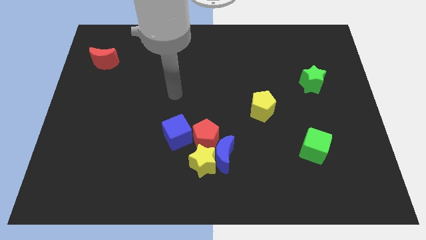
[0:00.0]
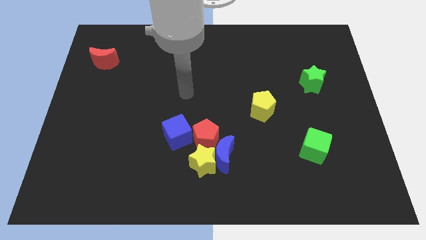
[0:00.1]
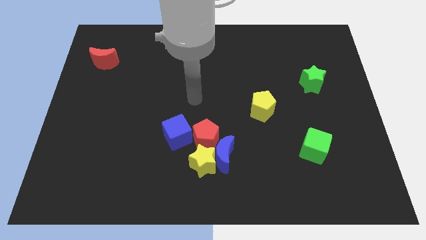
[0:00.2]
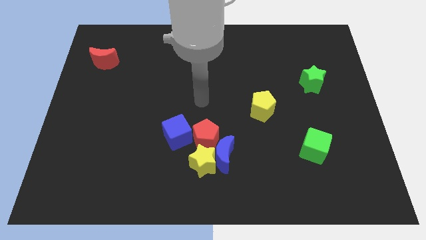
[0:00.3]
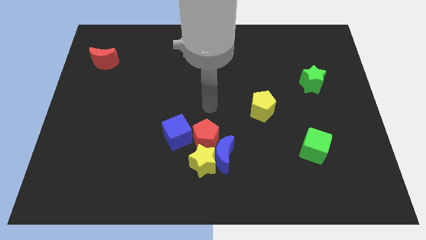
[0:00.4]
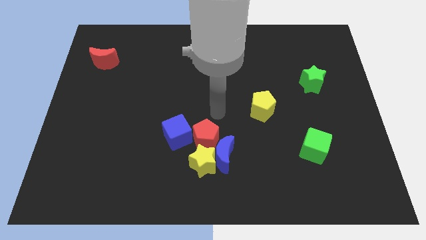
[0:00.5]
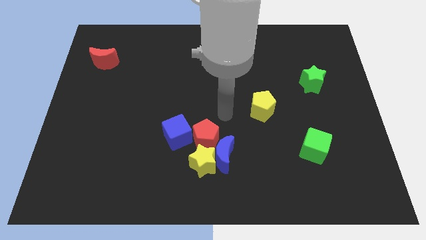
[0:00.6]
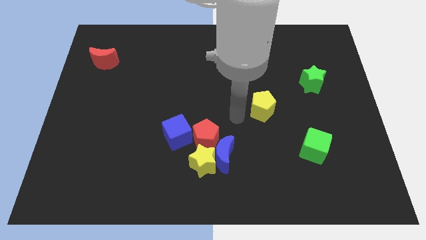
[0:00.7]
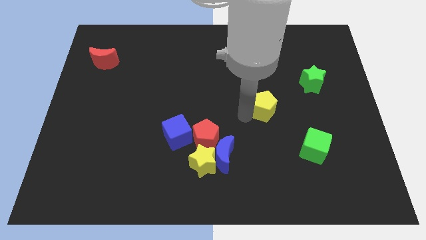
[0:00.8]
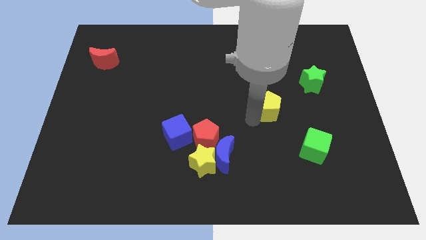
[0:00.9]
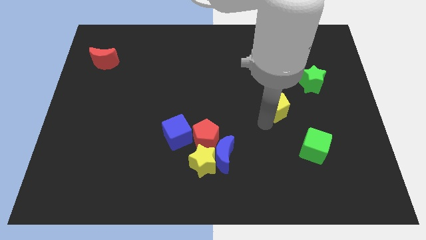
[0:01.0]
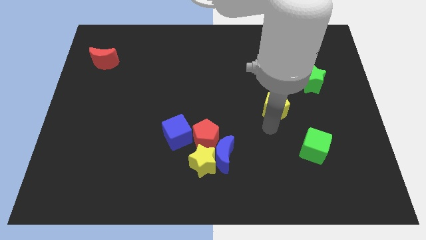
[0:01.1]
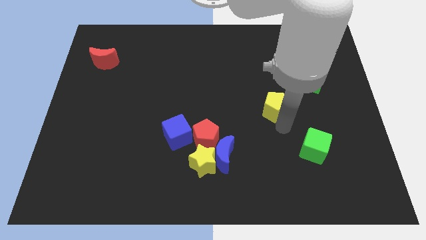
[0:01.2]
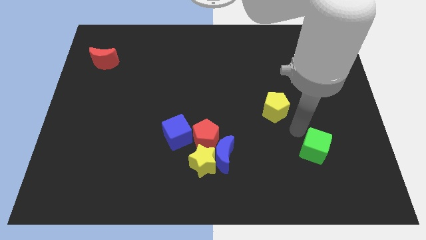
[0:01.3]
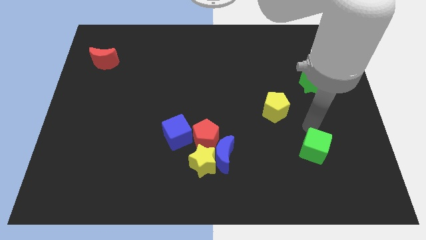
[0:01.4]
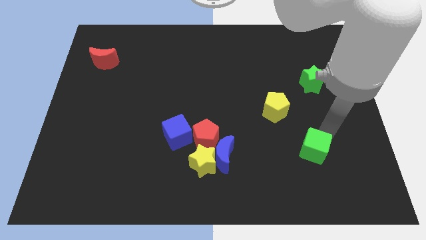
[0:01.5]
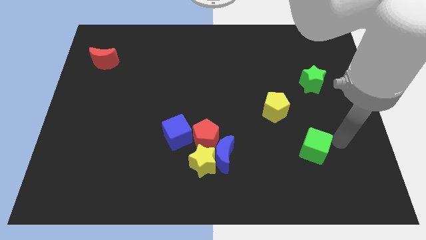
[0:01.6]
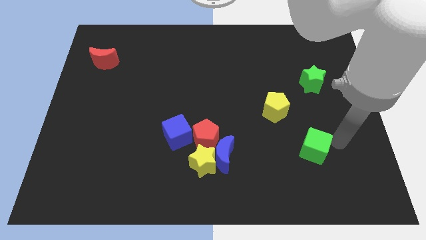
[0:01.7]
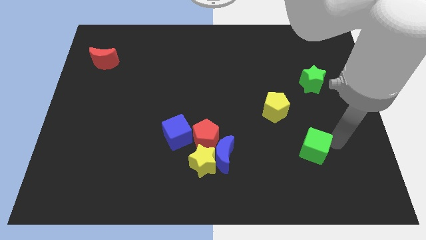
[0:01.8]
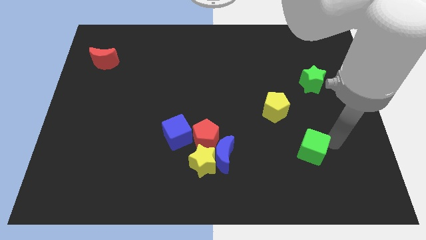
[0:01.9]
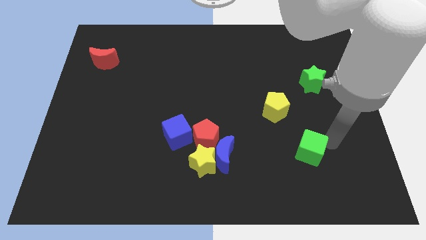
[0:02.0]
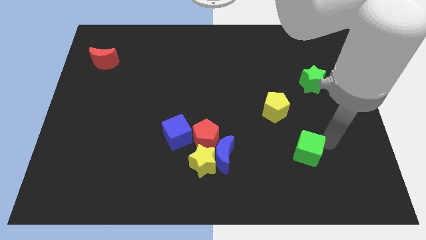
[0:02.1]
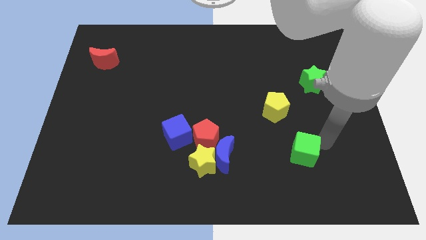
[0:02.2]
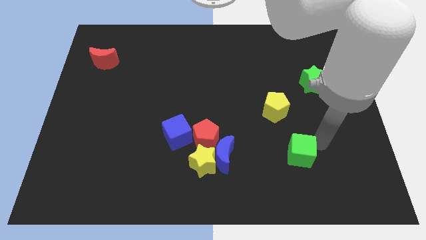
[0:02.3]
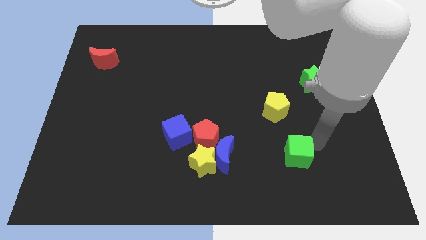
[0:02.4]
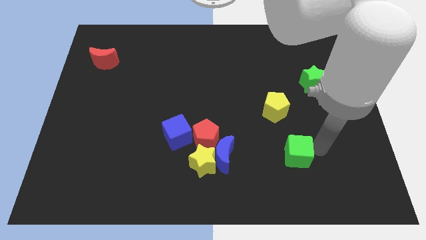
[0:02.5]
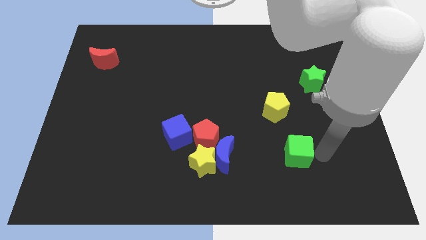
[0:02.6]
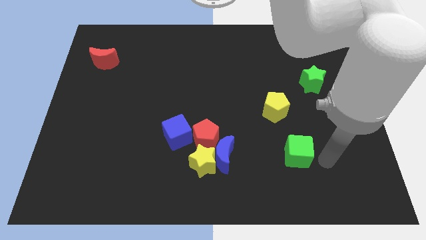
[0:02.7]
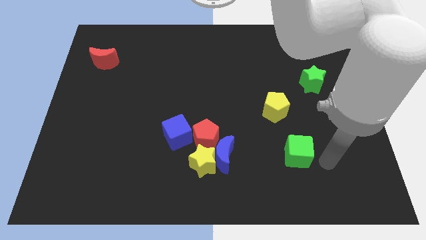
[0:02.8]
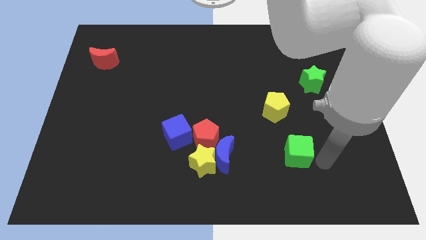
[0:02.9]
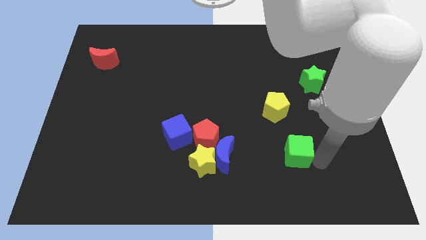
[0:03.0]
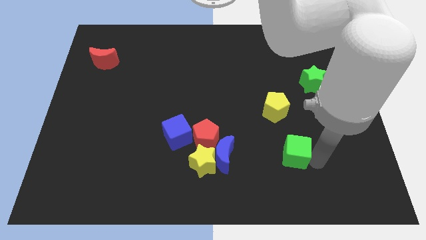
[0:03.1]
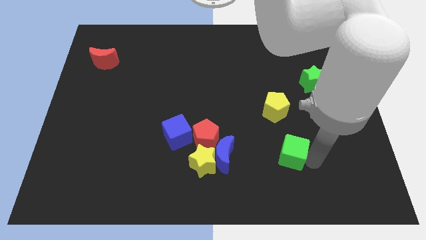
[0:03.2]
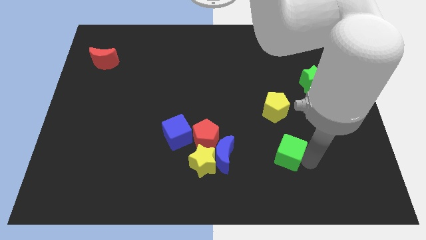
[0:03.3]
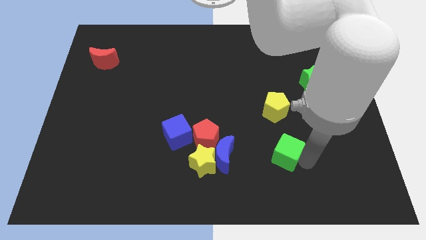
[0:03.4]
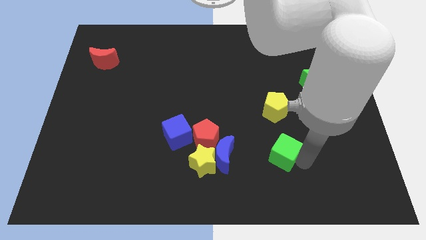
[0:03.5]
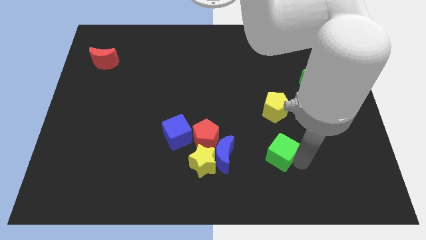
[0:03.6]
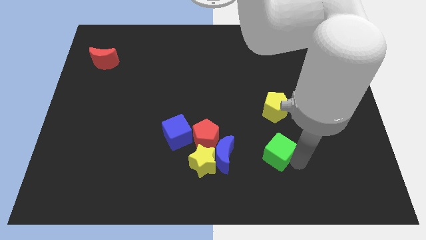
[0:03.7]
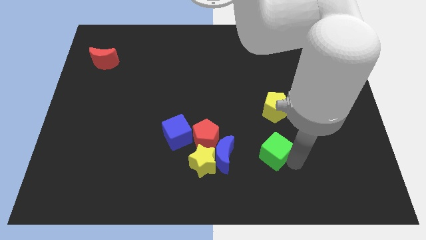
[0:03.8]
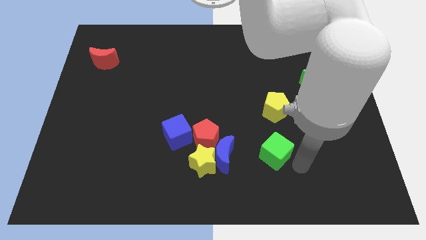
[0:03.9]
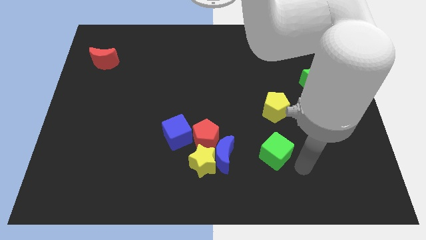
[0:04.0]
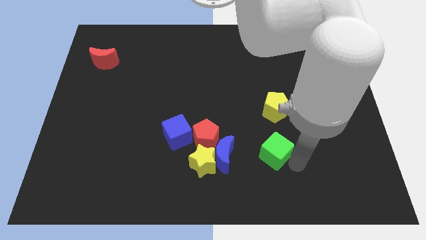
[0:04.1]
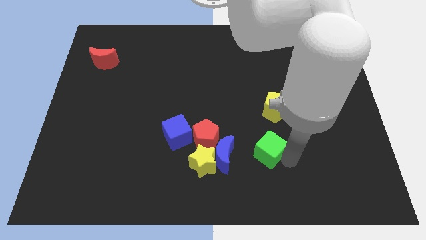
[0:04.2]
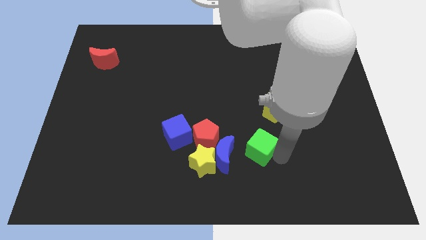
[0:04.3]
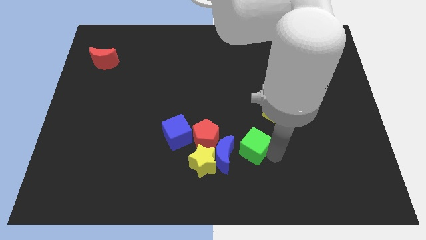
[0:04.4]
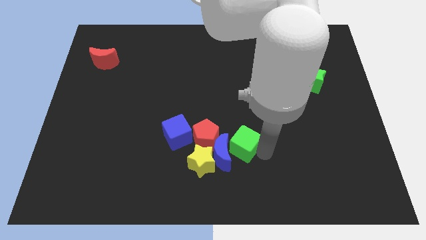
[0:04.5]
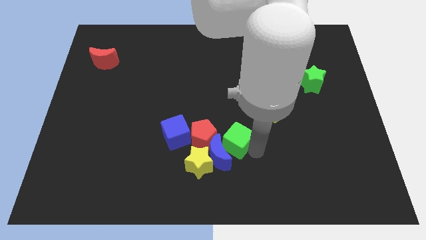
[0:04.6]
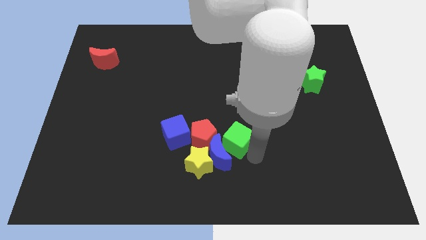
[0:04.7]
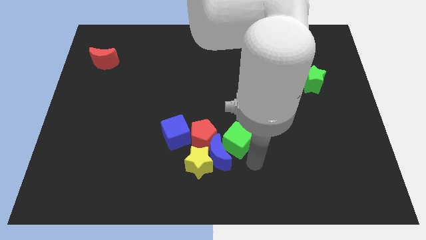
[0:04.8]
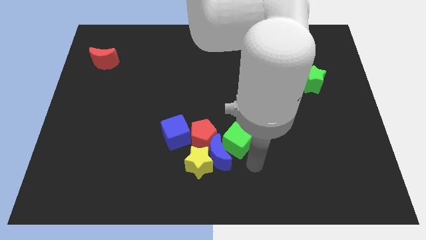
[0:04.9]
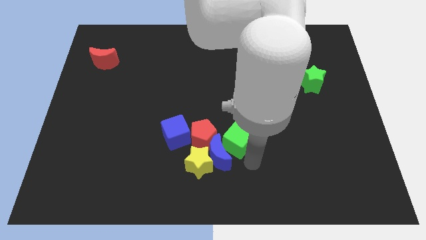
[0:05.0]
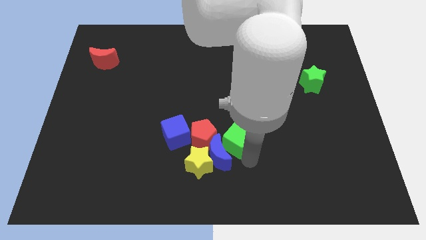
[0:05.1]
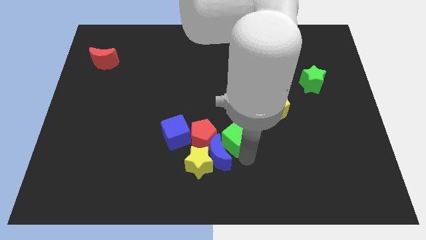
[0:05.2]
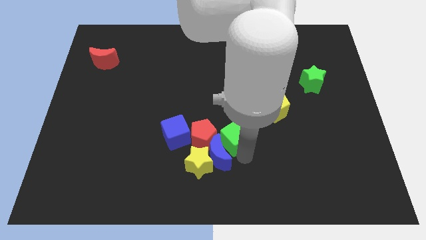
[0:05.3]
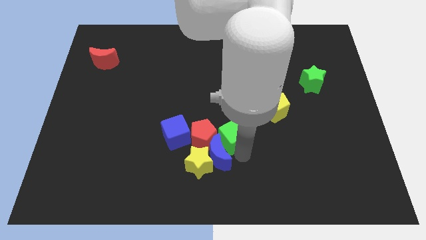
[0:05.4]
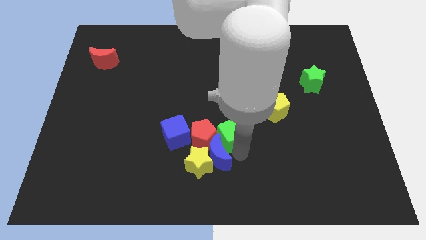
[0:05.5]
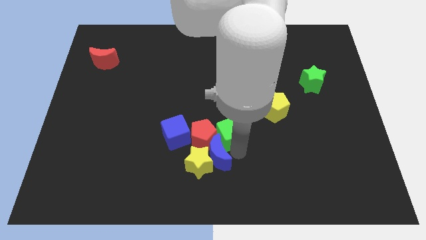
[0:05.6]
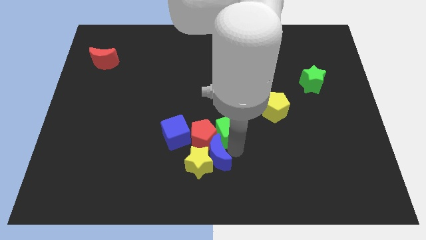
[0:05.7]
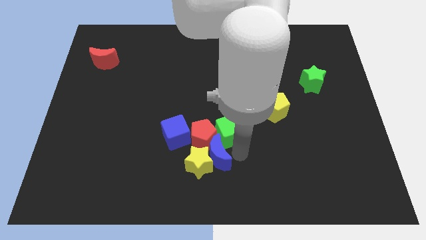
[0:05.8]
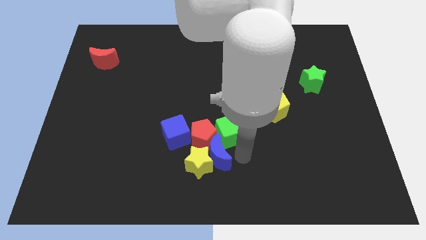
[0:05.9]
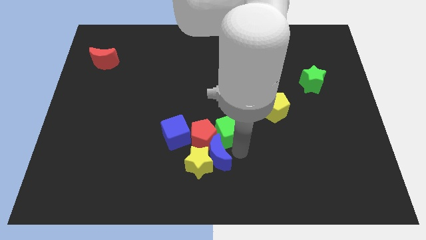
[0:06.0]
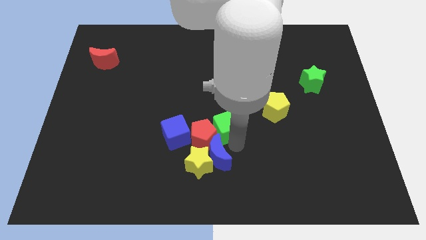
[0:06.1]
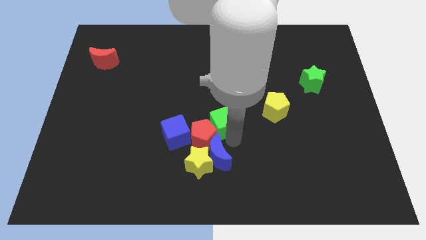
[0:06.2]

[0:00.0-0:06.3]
push the green cube to the top of the red pentagon

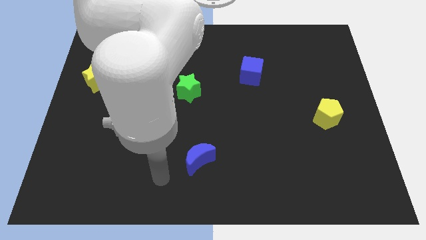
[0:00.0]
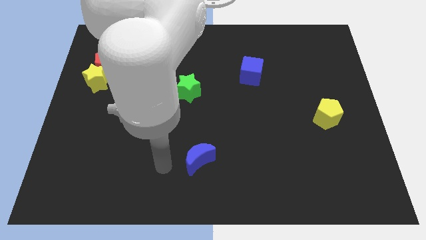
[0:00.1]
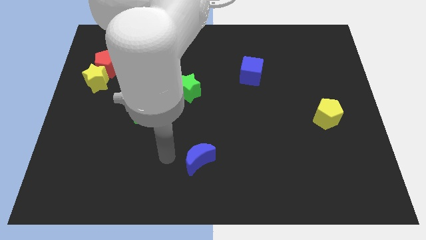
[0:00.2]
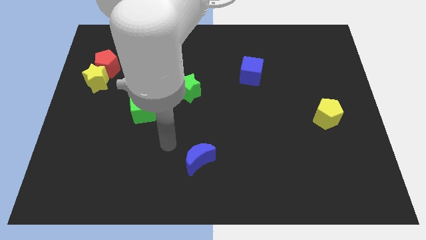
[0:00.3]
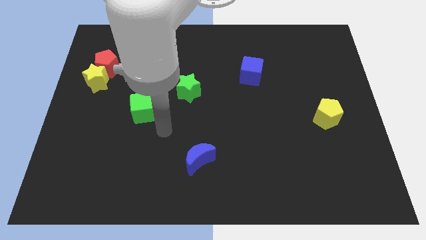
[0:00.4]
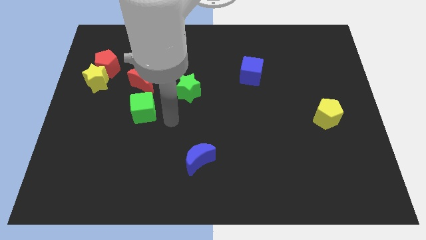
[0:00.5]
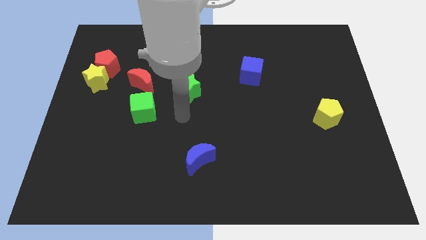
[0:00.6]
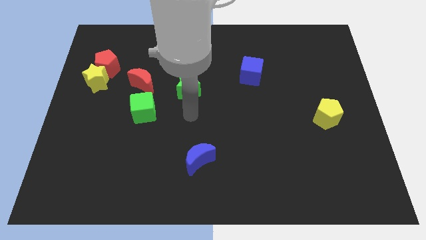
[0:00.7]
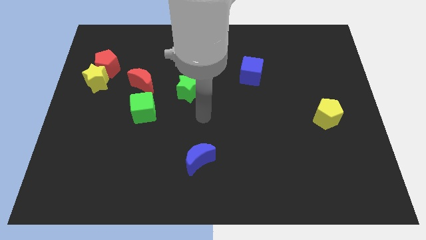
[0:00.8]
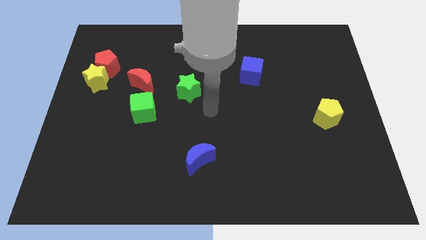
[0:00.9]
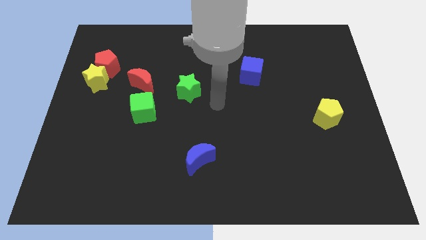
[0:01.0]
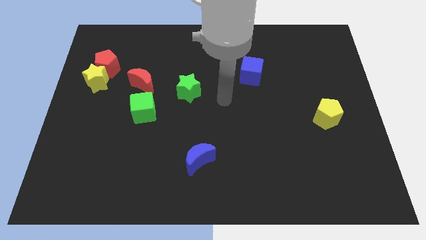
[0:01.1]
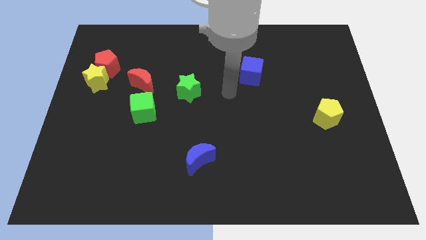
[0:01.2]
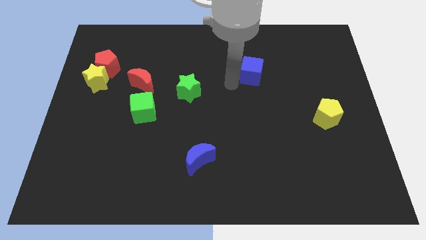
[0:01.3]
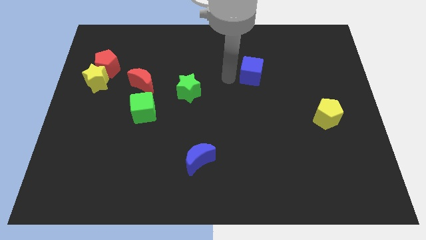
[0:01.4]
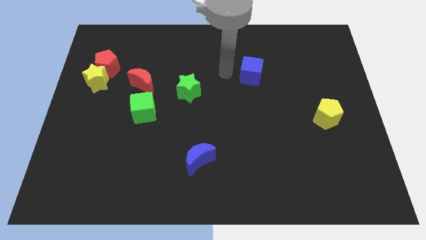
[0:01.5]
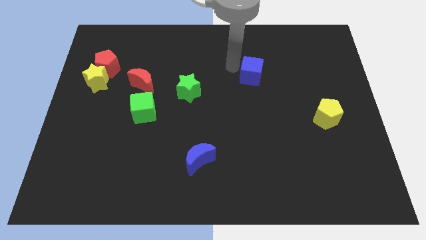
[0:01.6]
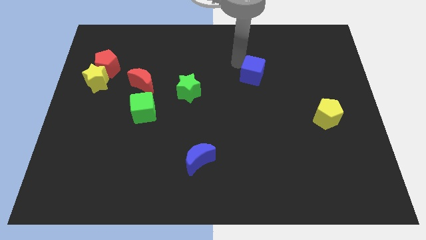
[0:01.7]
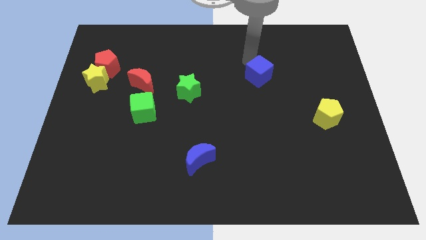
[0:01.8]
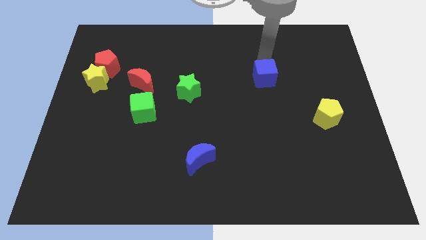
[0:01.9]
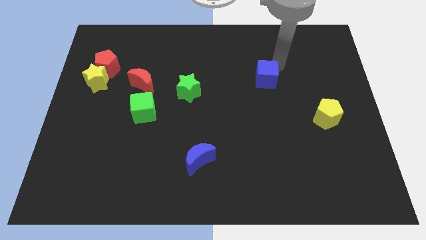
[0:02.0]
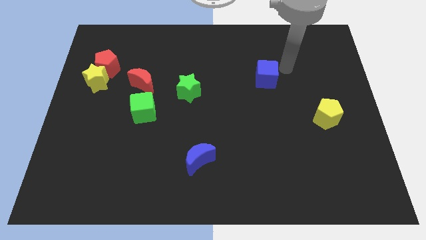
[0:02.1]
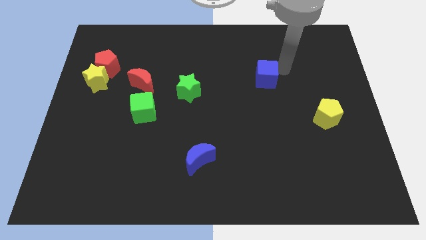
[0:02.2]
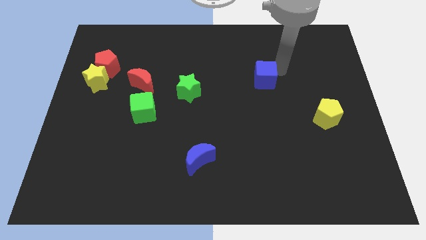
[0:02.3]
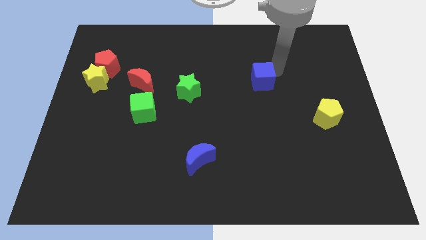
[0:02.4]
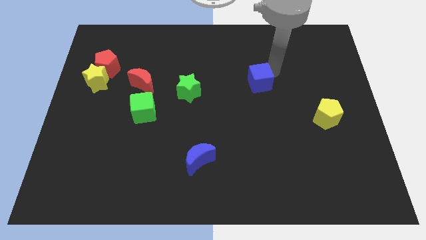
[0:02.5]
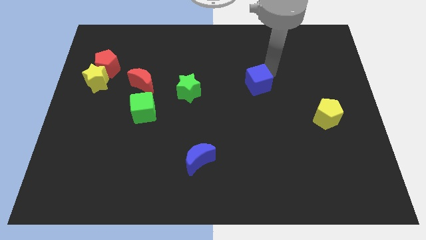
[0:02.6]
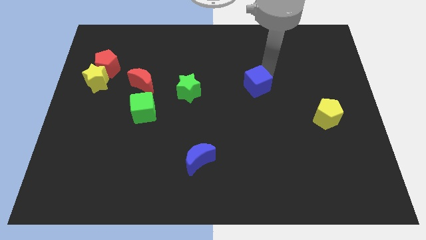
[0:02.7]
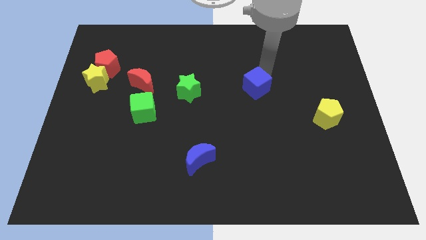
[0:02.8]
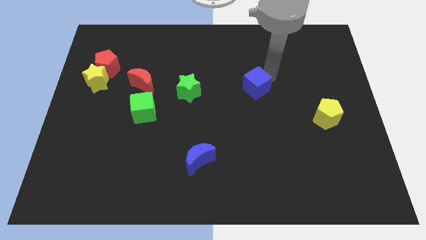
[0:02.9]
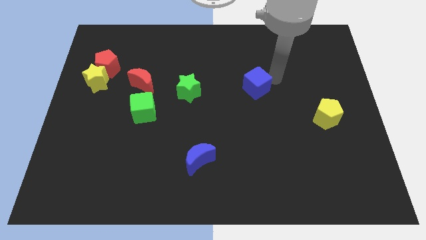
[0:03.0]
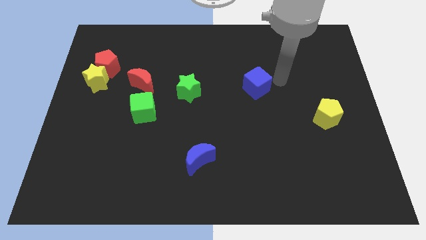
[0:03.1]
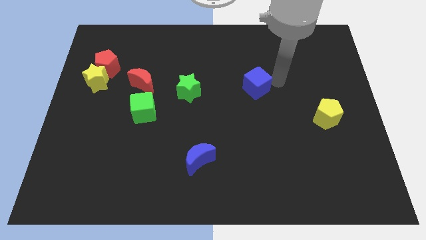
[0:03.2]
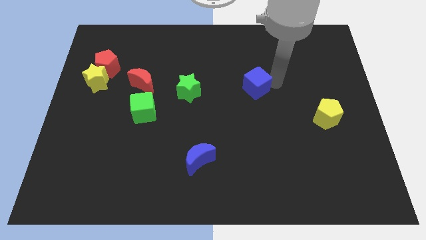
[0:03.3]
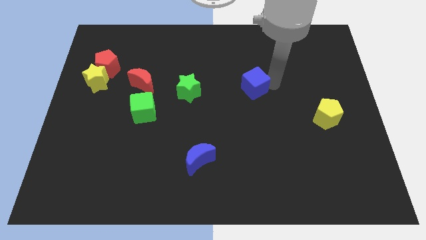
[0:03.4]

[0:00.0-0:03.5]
push the blue cube right of the green star
